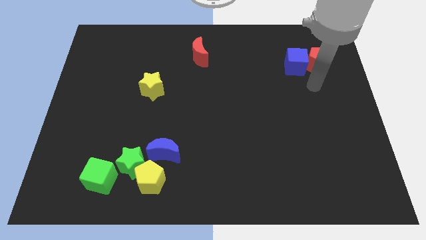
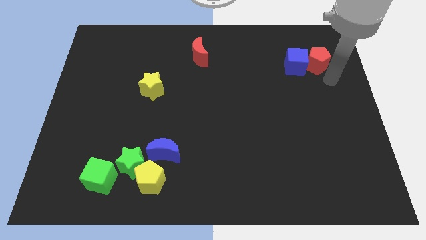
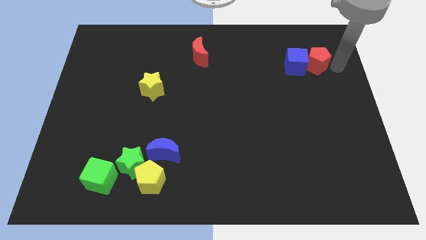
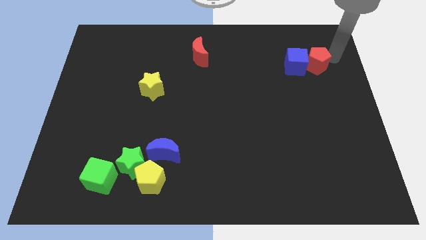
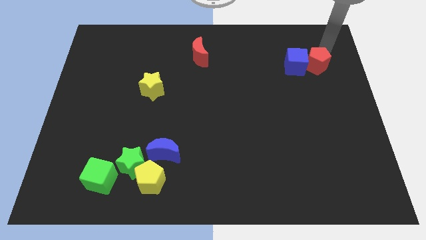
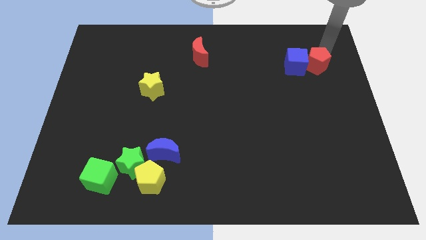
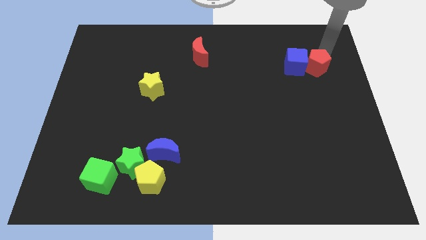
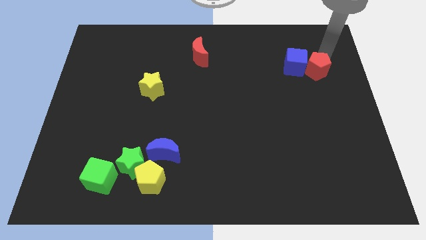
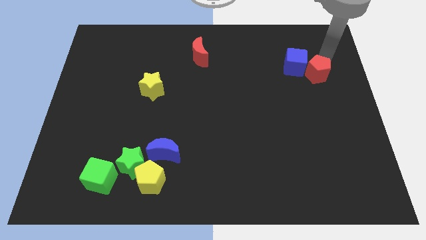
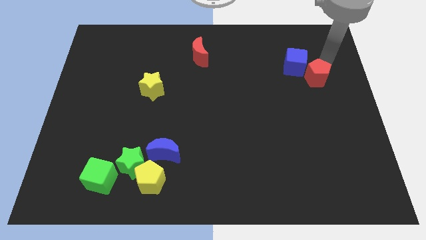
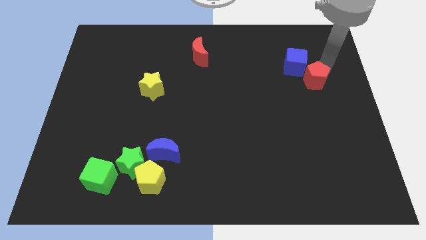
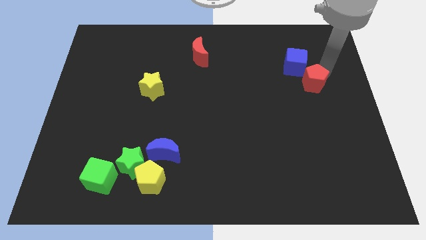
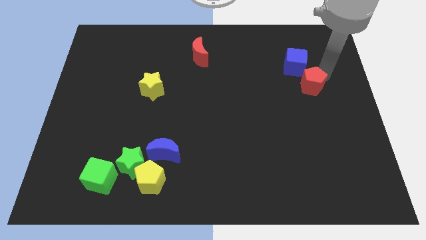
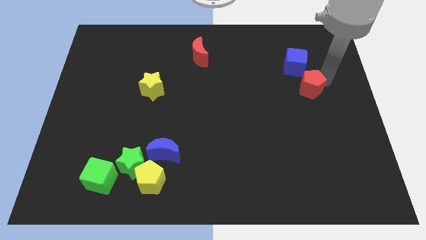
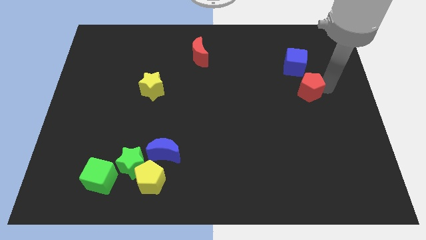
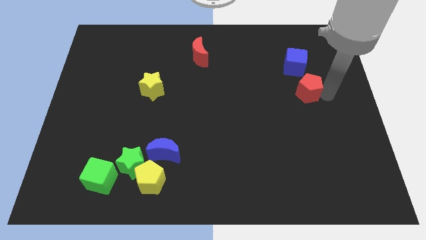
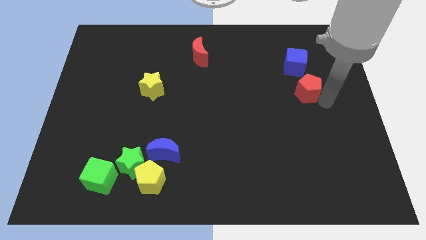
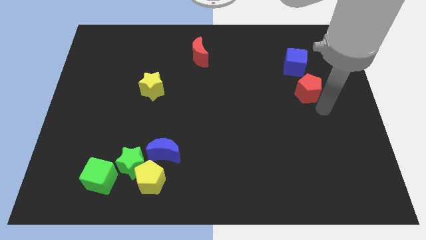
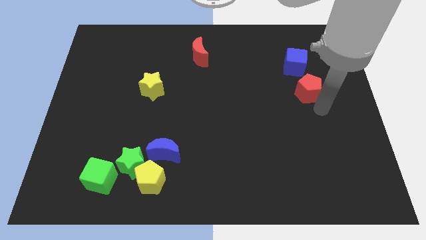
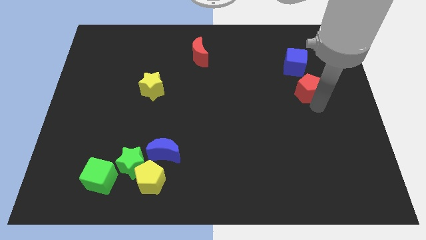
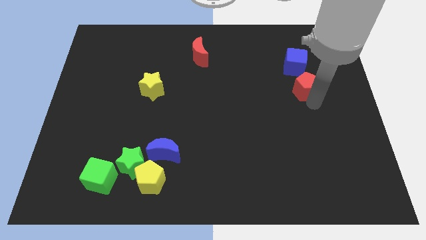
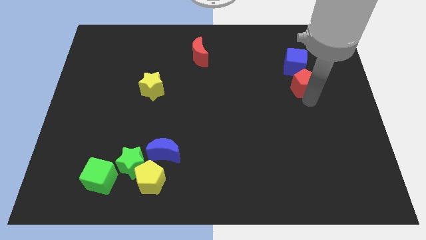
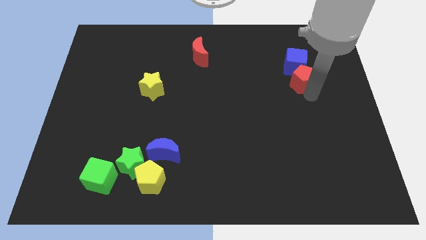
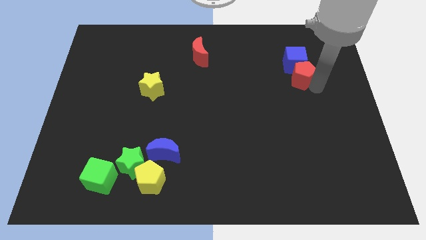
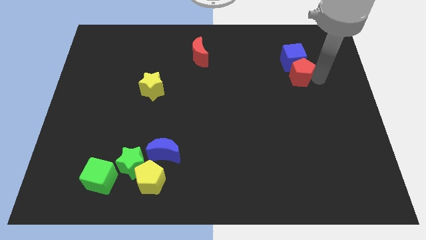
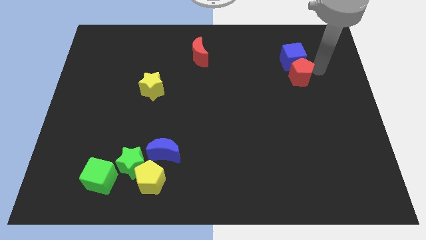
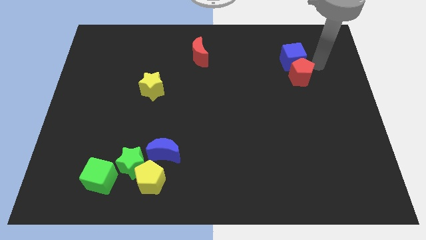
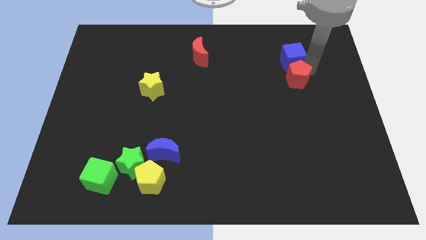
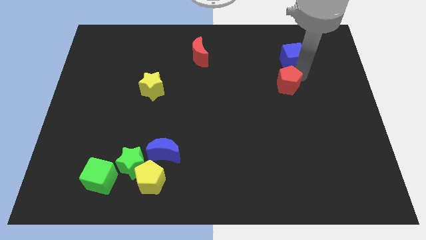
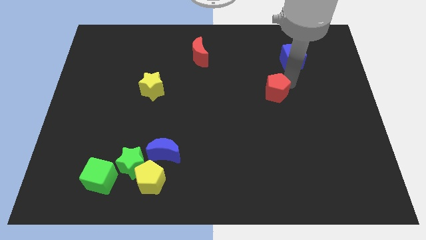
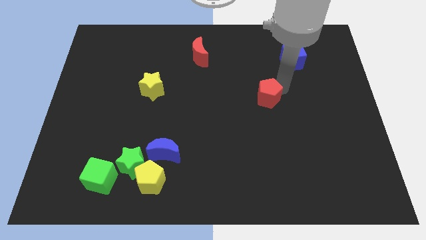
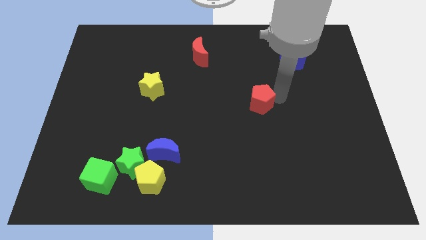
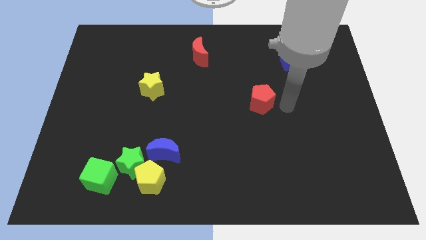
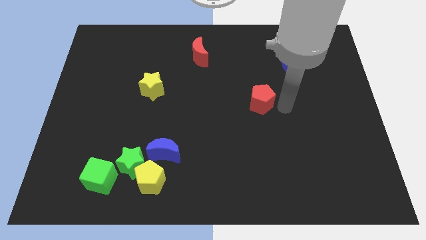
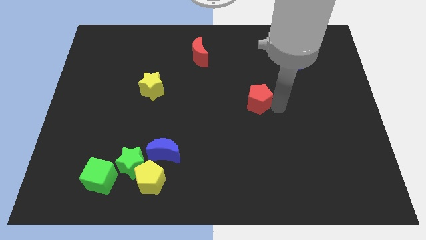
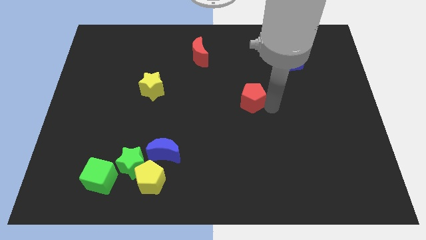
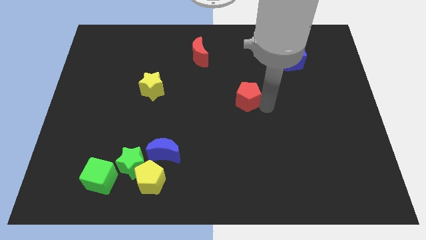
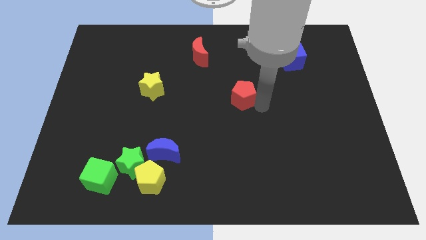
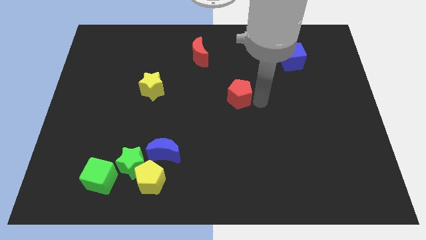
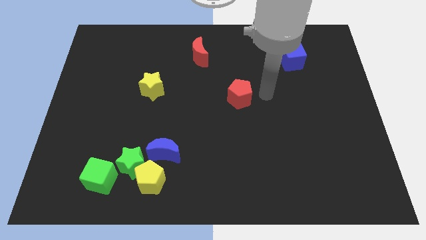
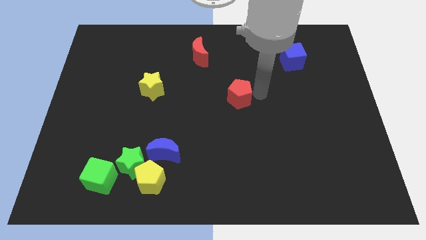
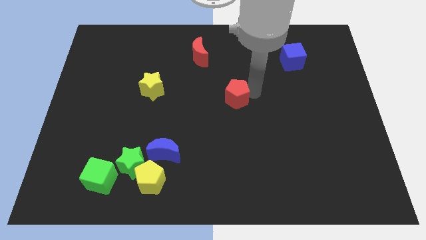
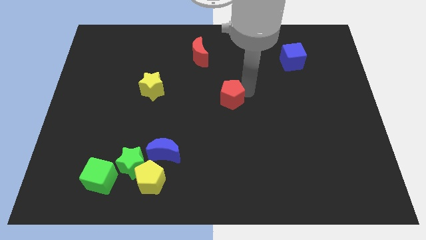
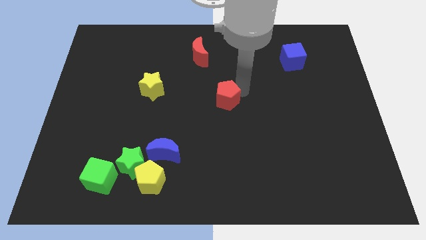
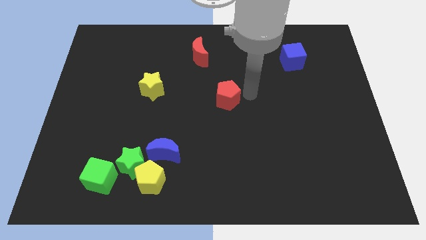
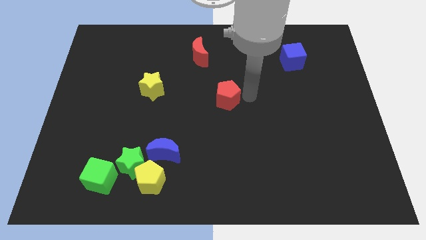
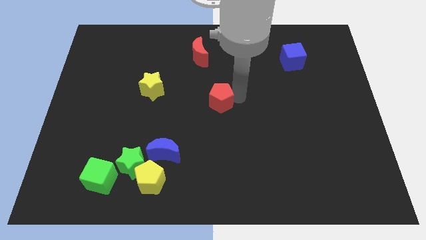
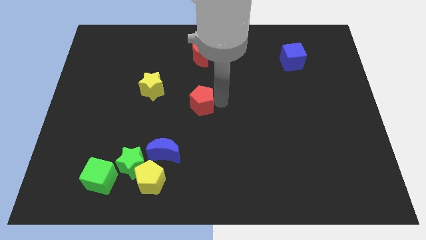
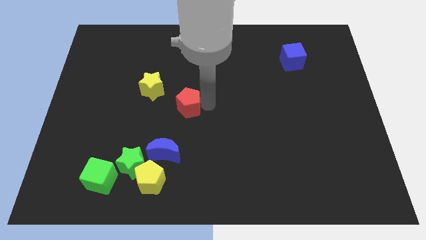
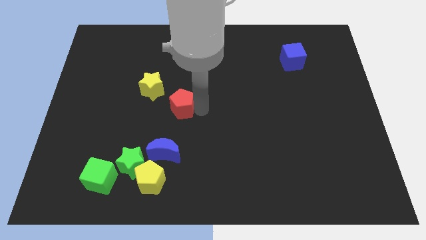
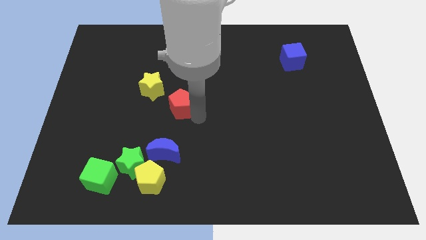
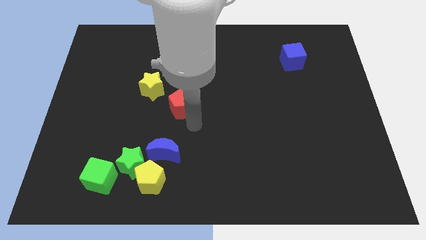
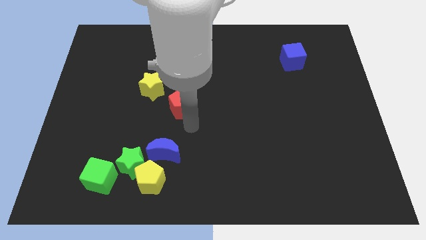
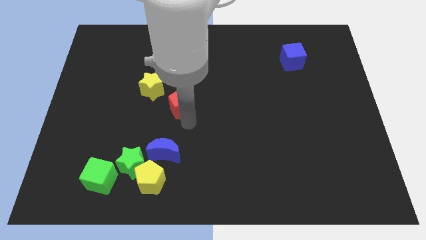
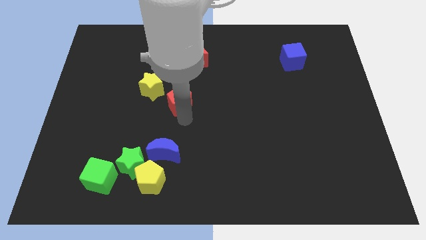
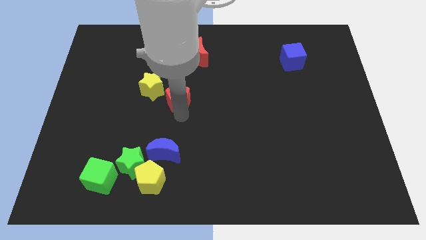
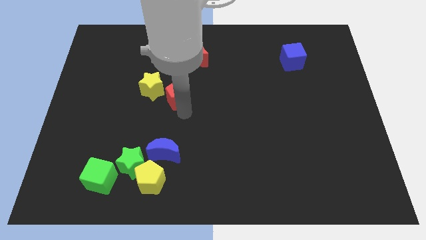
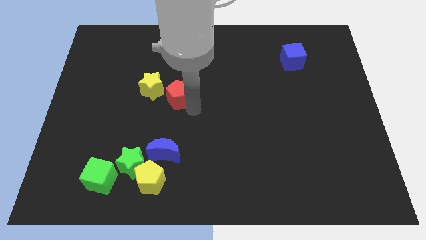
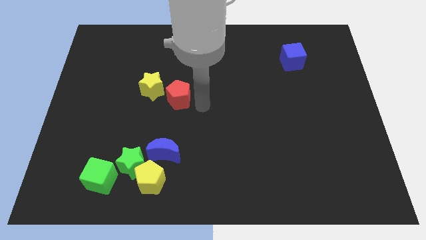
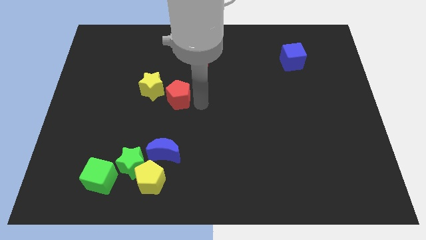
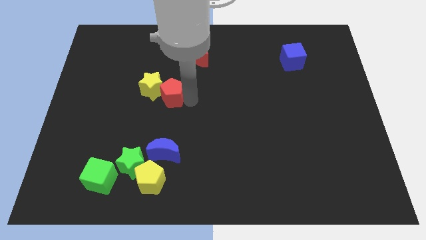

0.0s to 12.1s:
slide the red pentagon next to the yellow star

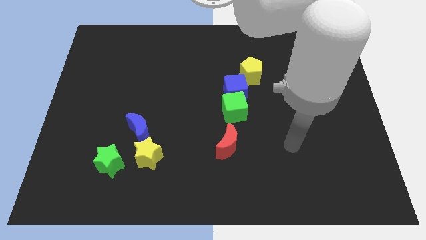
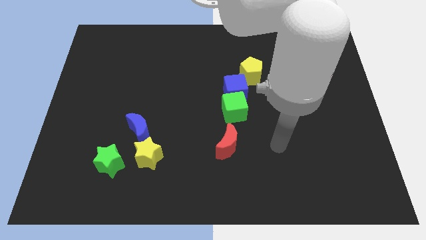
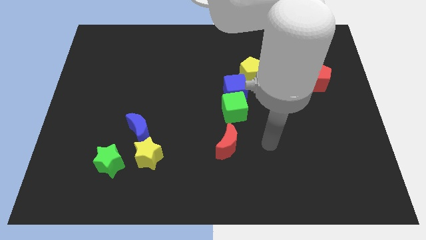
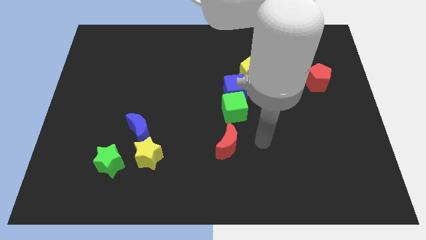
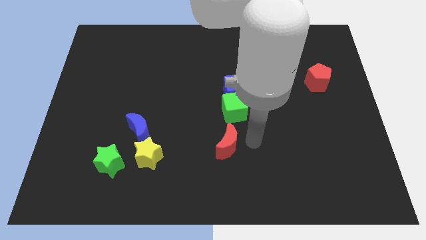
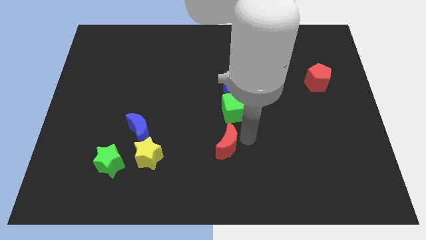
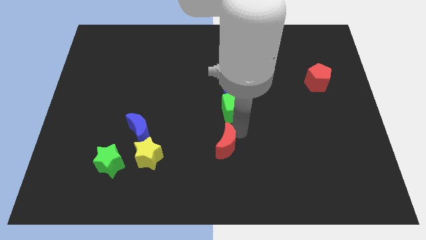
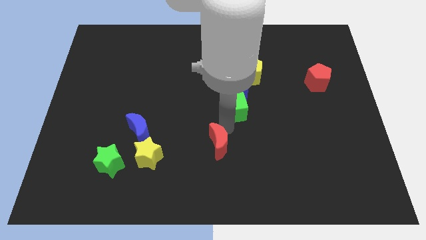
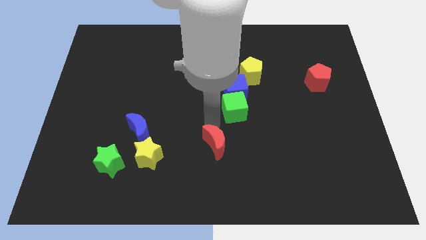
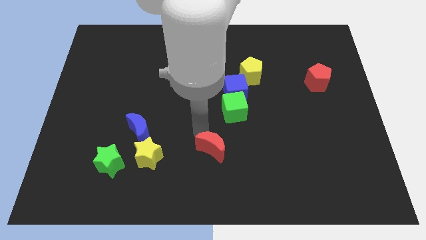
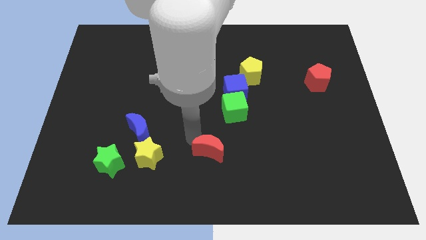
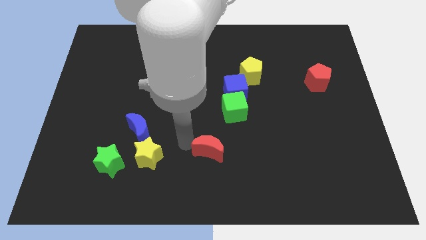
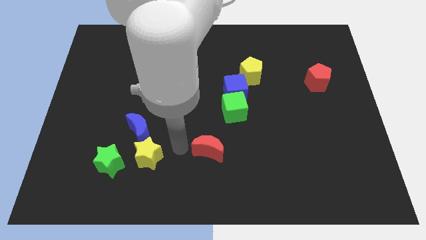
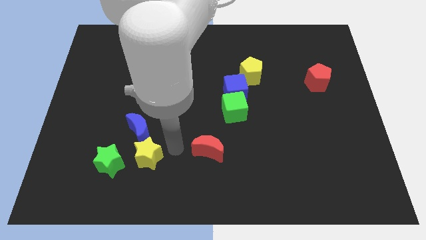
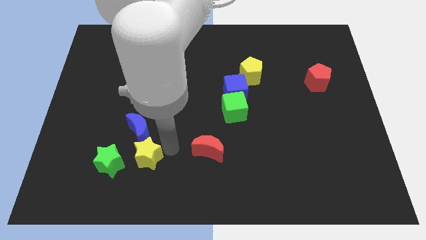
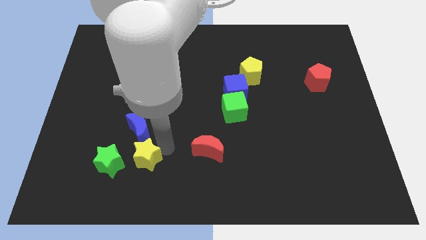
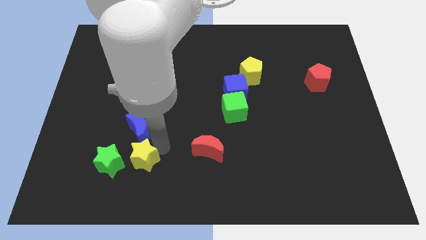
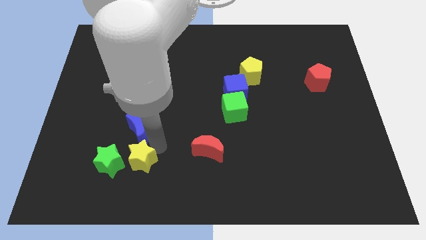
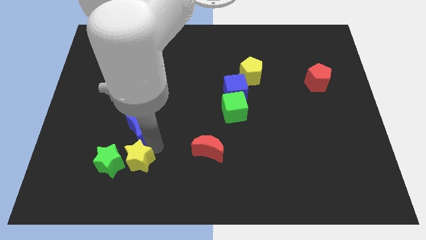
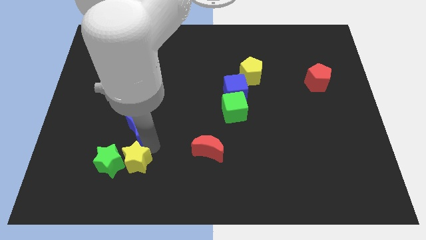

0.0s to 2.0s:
put the yellow star next to the green star
